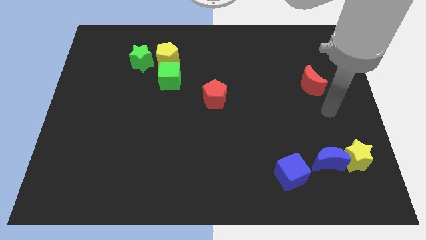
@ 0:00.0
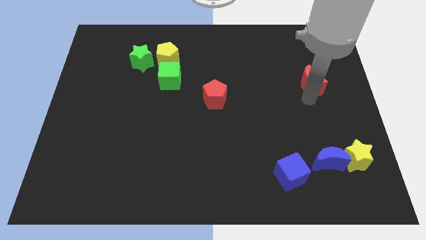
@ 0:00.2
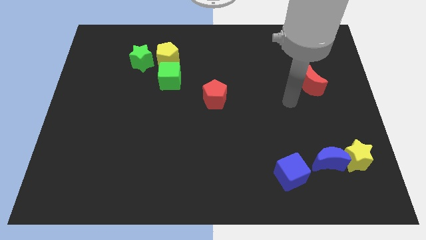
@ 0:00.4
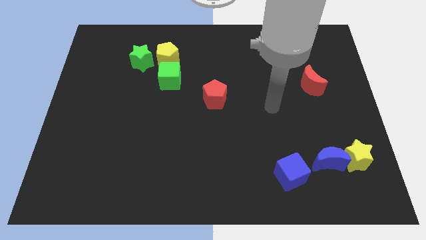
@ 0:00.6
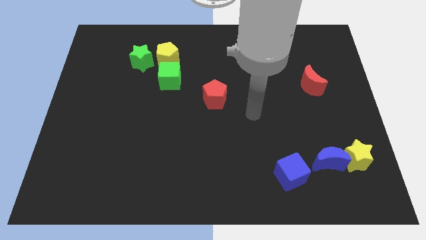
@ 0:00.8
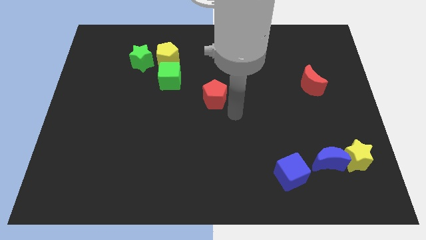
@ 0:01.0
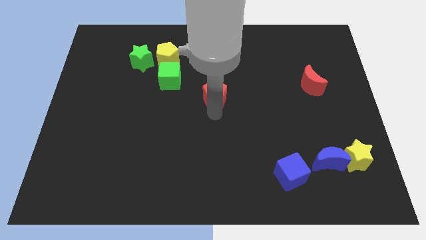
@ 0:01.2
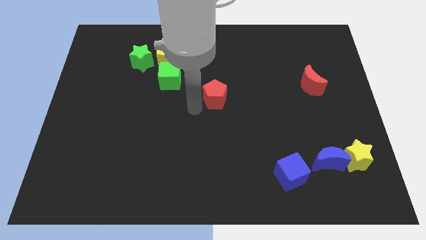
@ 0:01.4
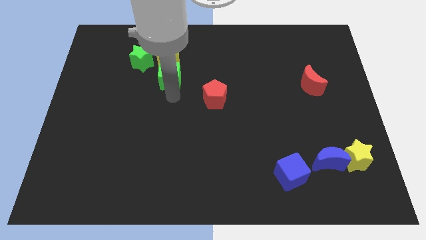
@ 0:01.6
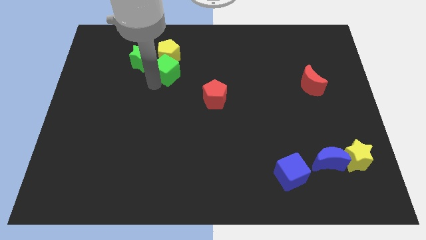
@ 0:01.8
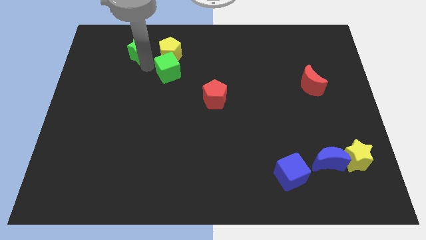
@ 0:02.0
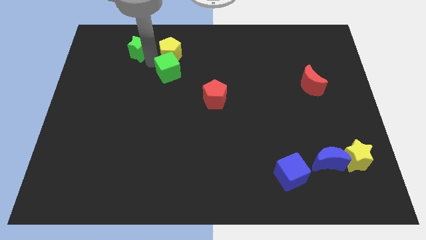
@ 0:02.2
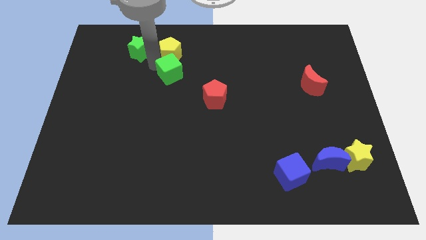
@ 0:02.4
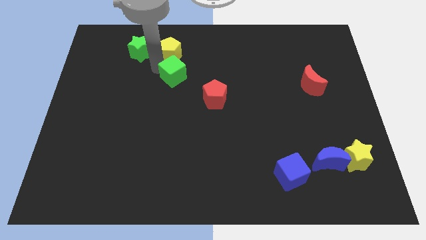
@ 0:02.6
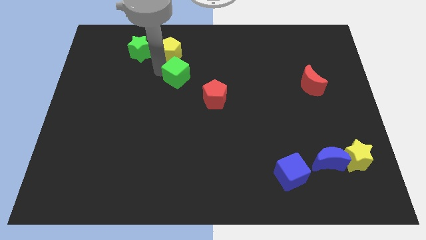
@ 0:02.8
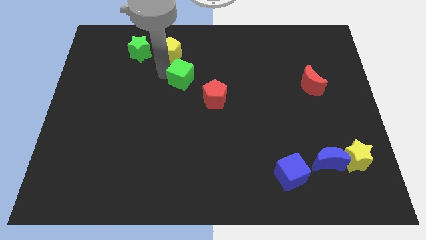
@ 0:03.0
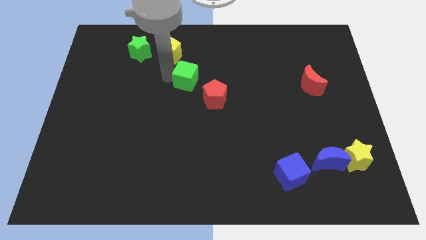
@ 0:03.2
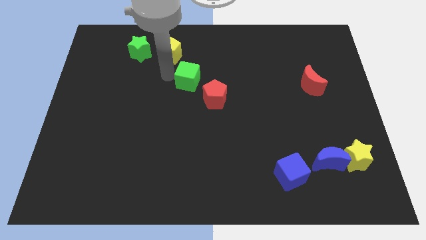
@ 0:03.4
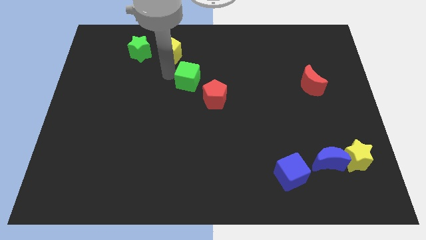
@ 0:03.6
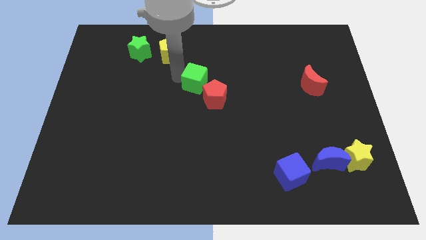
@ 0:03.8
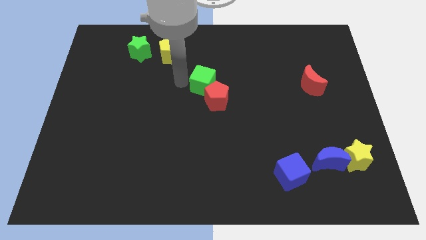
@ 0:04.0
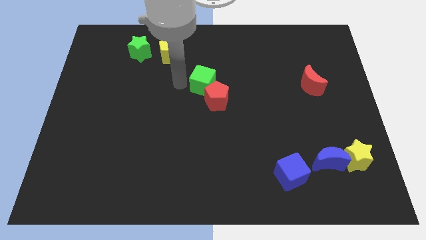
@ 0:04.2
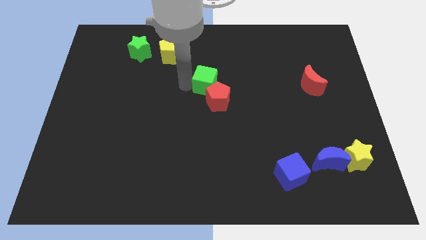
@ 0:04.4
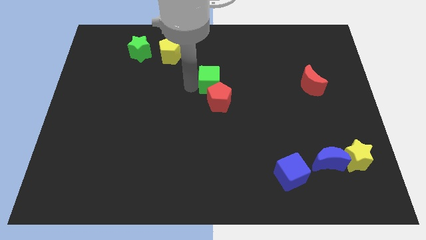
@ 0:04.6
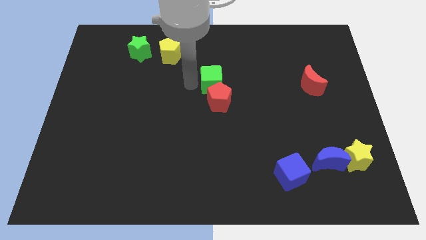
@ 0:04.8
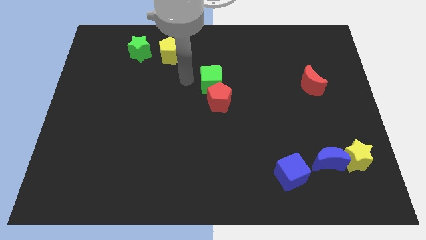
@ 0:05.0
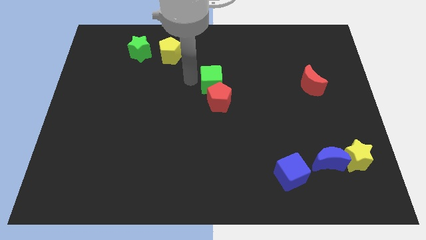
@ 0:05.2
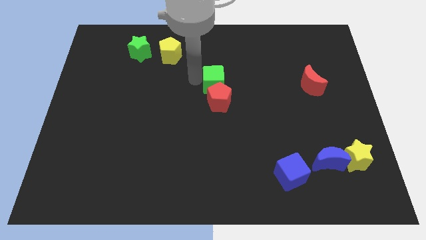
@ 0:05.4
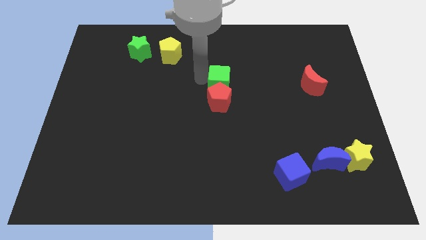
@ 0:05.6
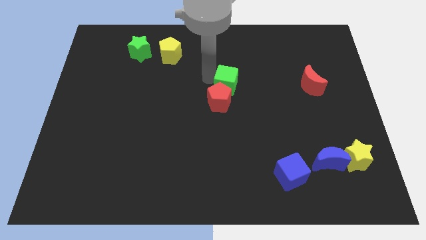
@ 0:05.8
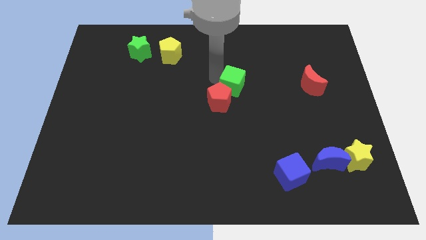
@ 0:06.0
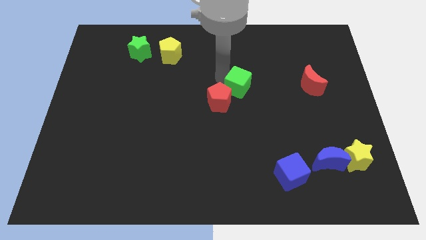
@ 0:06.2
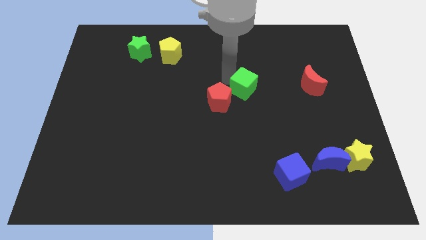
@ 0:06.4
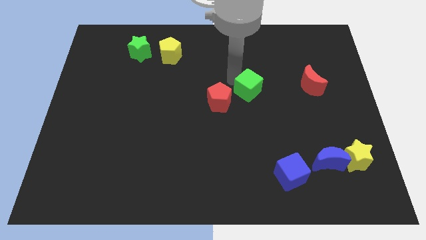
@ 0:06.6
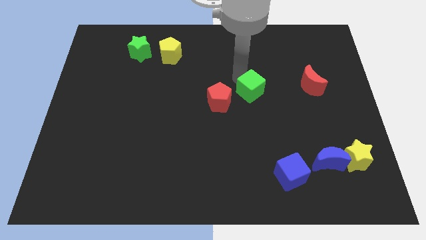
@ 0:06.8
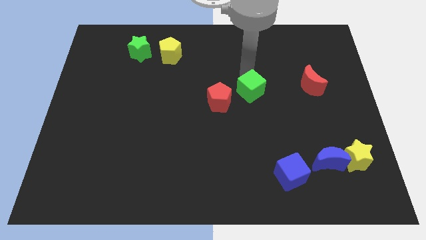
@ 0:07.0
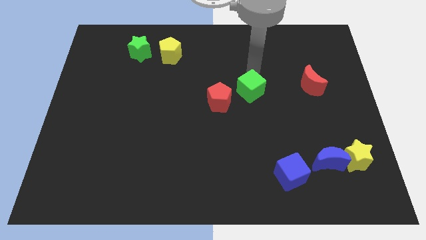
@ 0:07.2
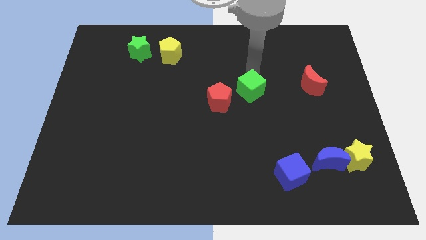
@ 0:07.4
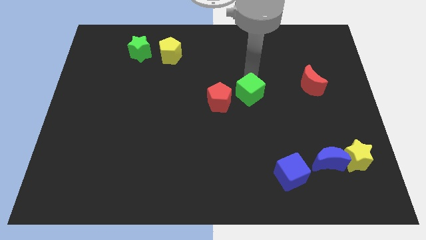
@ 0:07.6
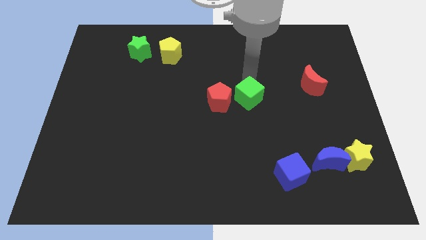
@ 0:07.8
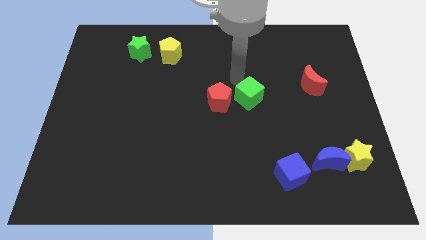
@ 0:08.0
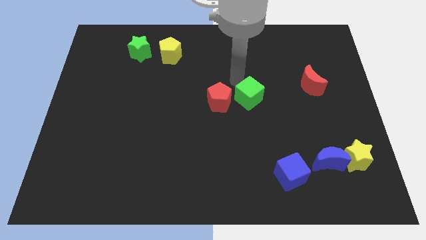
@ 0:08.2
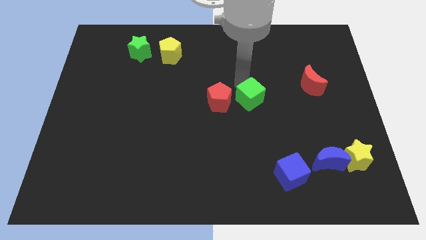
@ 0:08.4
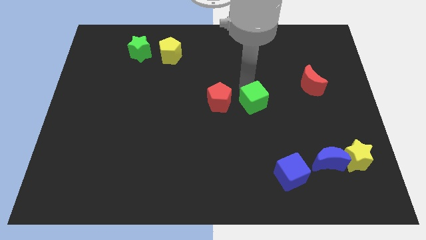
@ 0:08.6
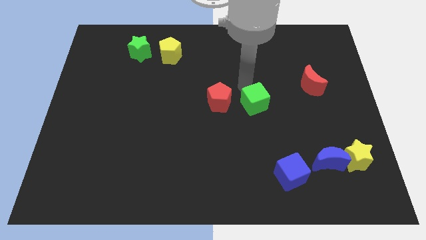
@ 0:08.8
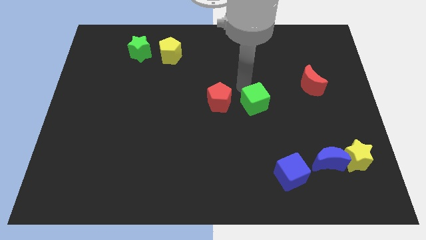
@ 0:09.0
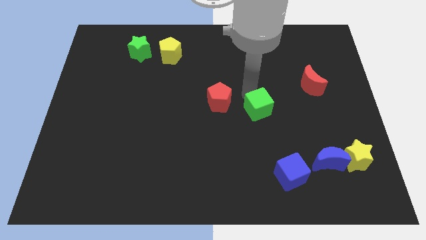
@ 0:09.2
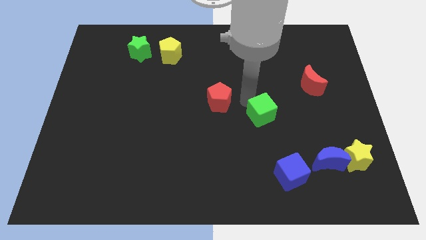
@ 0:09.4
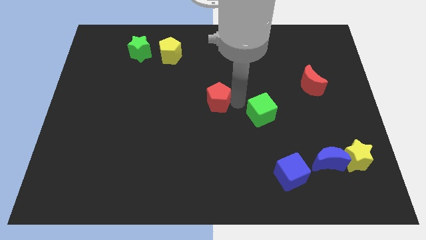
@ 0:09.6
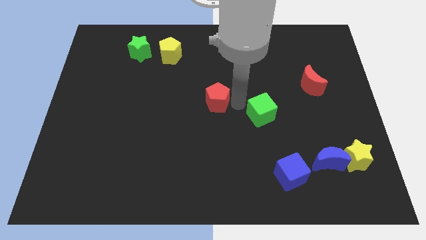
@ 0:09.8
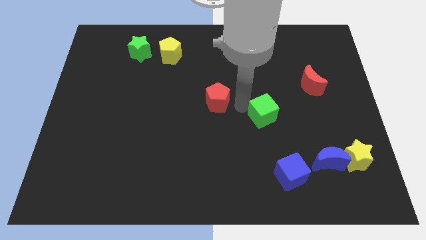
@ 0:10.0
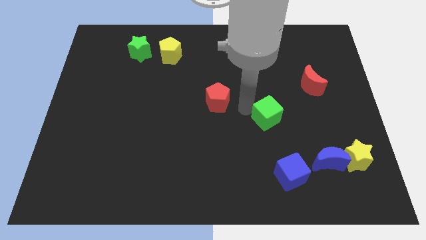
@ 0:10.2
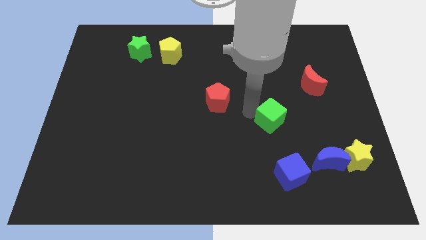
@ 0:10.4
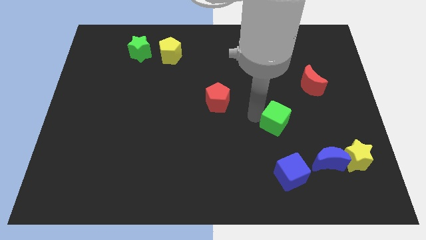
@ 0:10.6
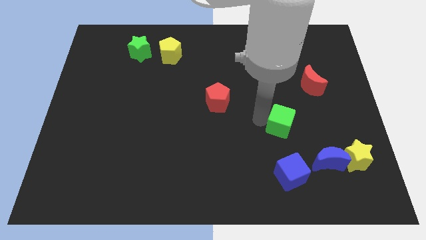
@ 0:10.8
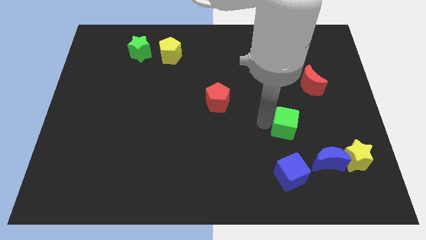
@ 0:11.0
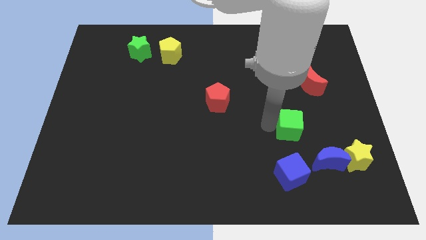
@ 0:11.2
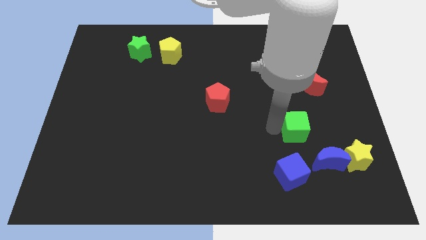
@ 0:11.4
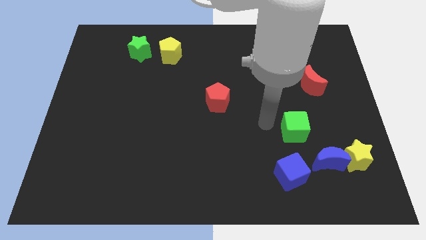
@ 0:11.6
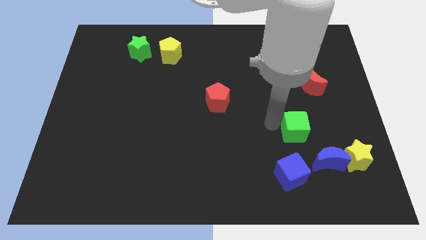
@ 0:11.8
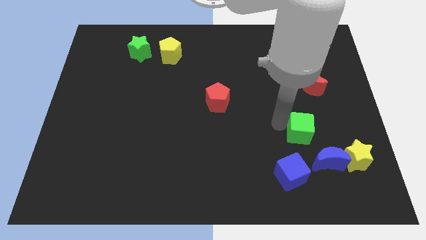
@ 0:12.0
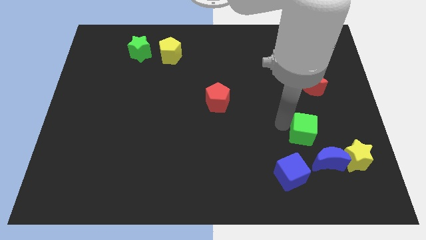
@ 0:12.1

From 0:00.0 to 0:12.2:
slide the green cube to the top left side of the yellow star
